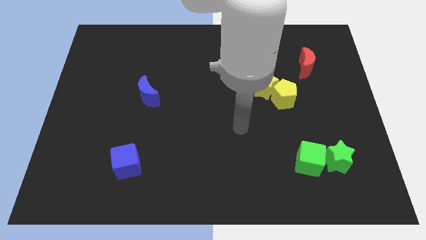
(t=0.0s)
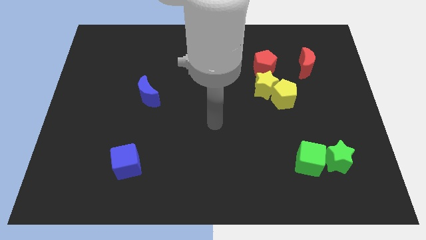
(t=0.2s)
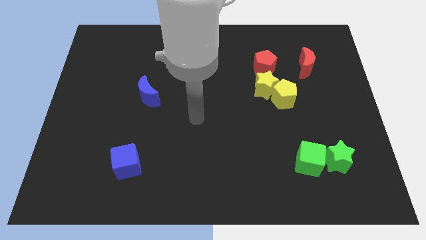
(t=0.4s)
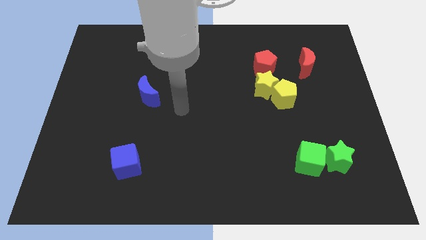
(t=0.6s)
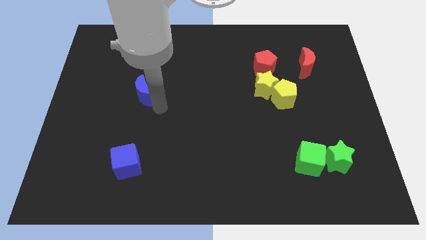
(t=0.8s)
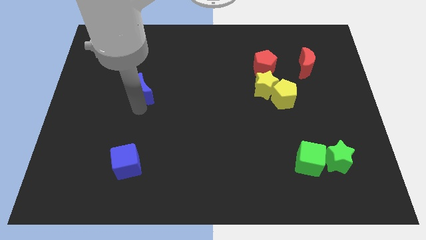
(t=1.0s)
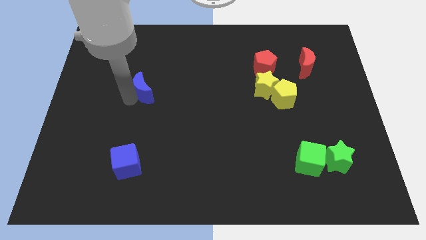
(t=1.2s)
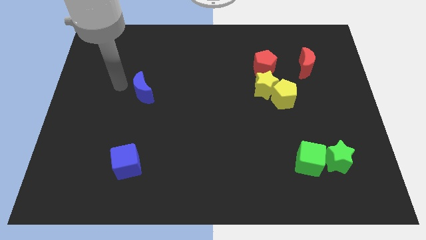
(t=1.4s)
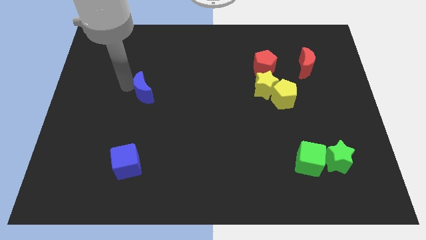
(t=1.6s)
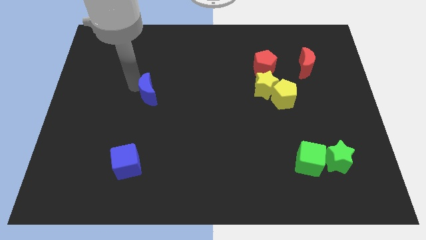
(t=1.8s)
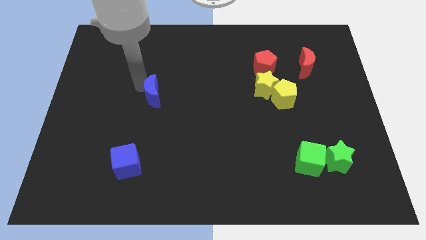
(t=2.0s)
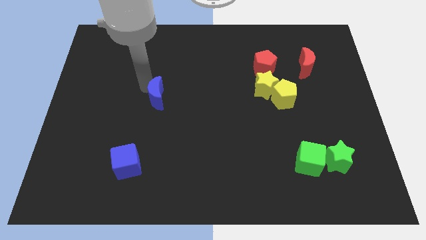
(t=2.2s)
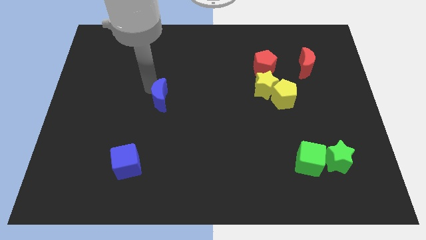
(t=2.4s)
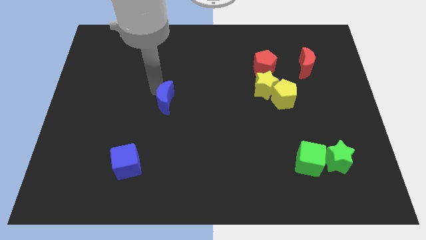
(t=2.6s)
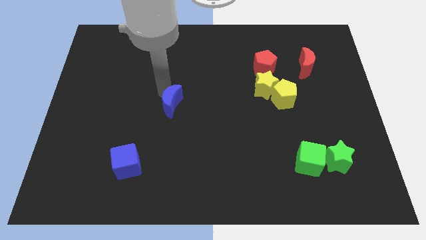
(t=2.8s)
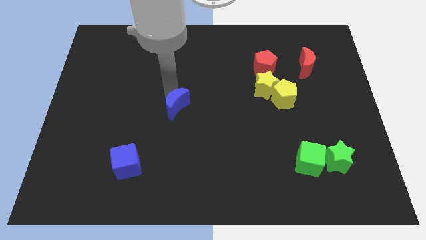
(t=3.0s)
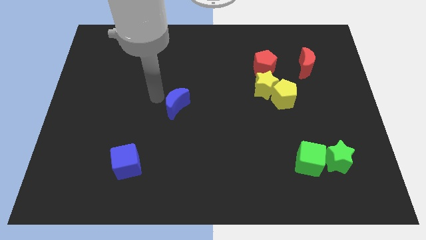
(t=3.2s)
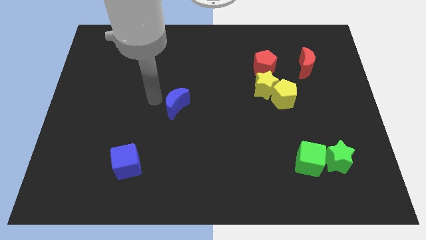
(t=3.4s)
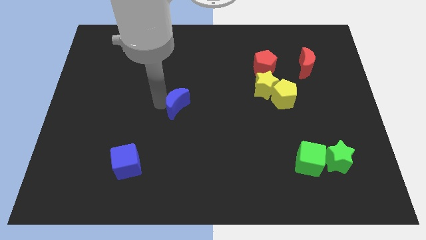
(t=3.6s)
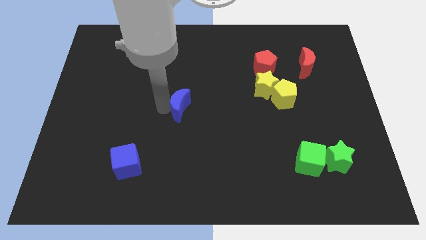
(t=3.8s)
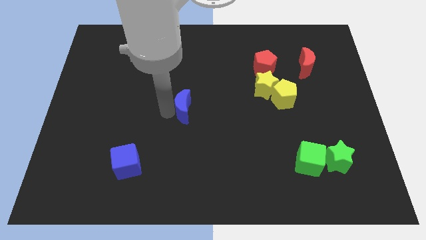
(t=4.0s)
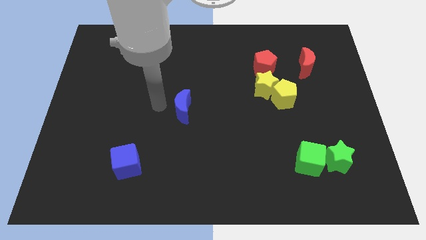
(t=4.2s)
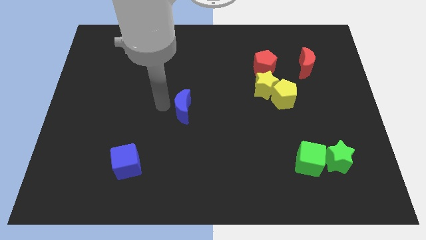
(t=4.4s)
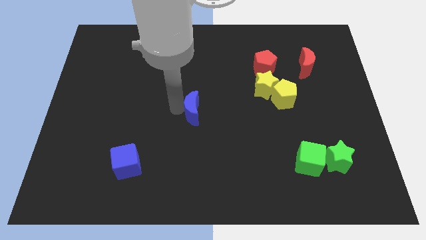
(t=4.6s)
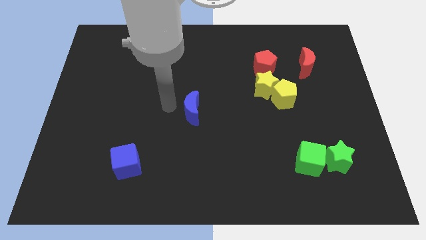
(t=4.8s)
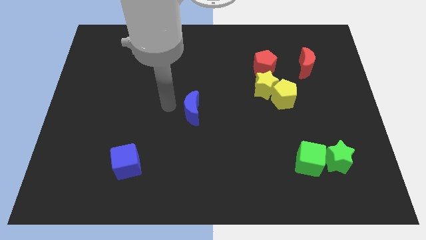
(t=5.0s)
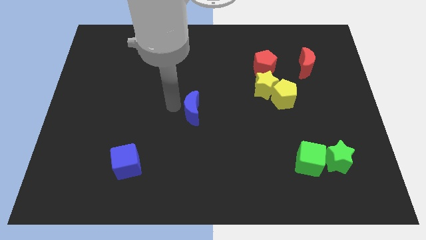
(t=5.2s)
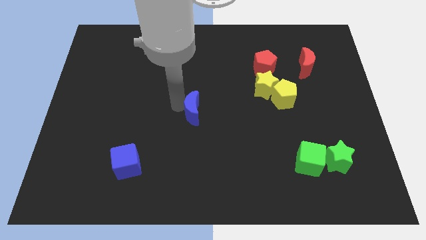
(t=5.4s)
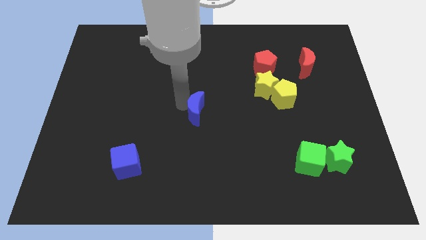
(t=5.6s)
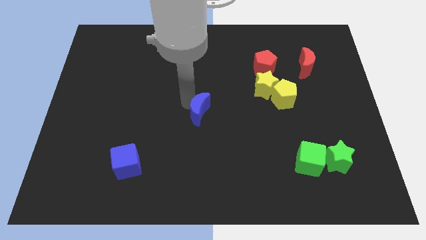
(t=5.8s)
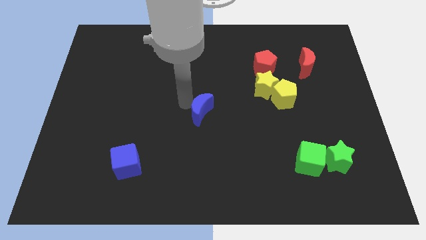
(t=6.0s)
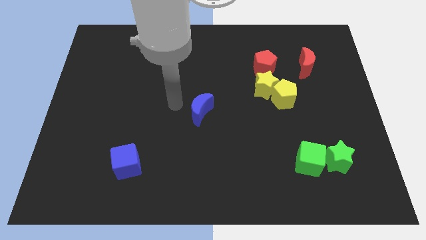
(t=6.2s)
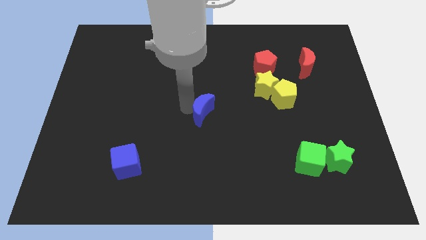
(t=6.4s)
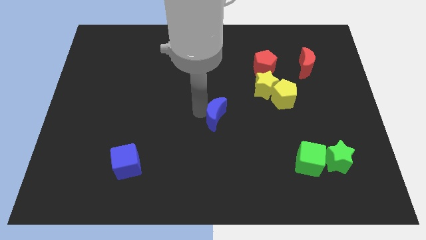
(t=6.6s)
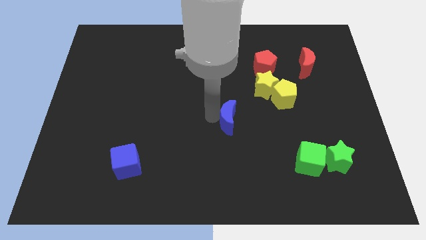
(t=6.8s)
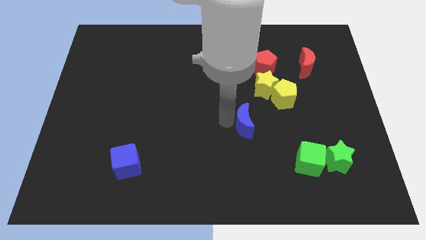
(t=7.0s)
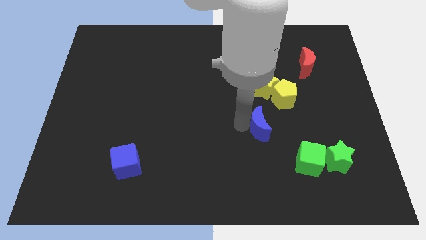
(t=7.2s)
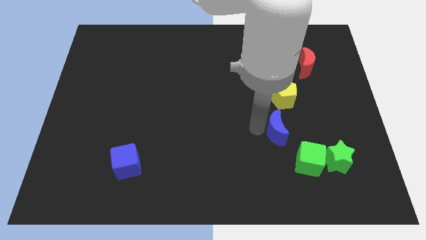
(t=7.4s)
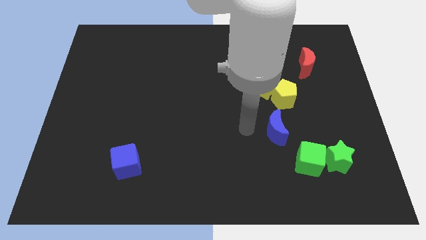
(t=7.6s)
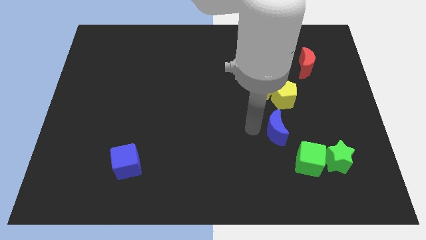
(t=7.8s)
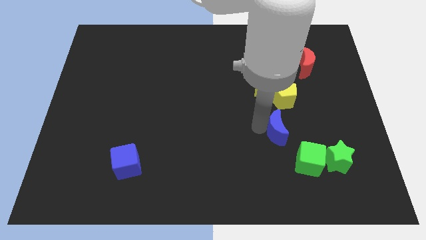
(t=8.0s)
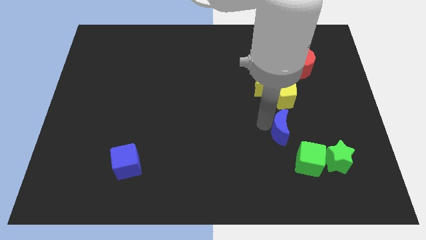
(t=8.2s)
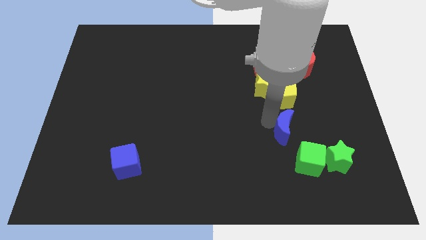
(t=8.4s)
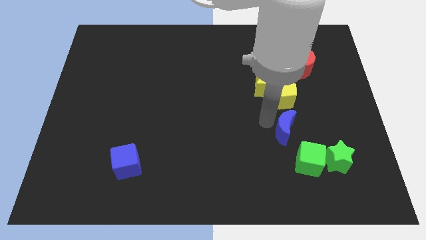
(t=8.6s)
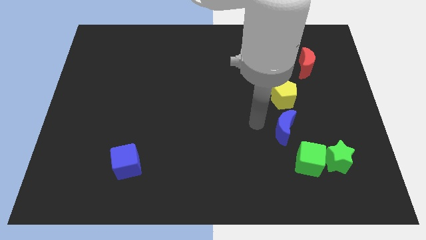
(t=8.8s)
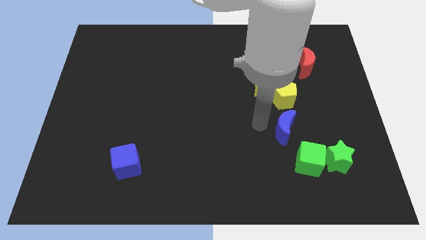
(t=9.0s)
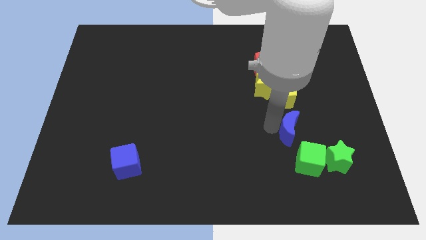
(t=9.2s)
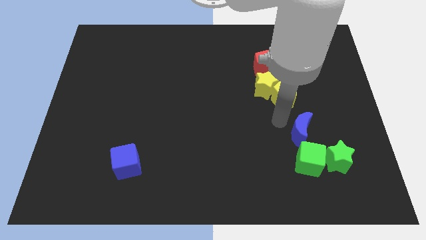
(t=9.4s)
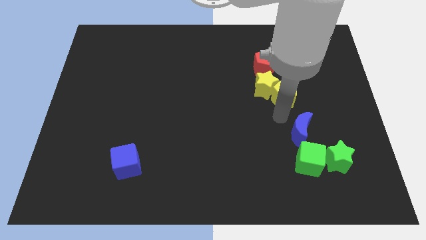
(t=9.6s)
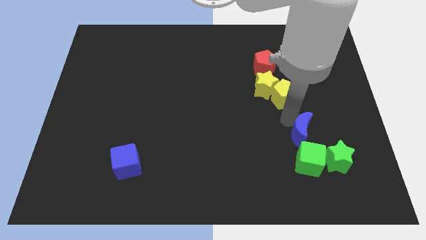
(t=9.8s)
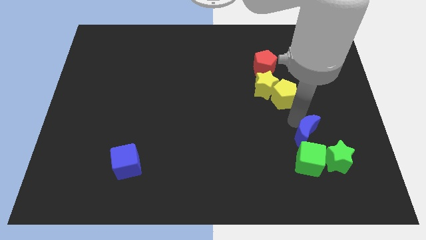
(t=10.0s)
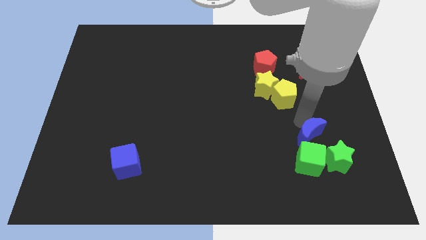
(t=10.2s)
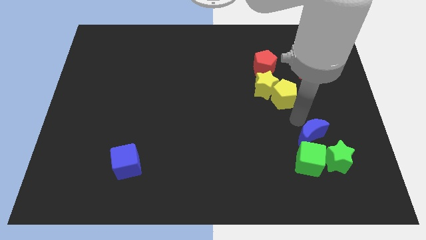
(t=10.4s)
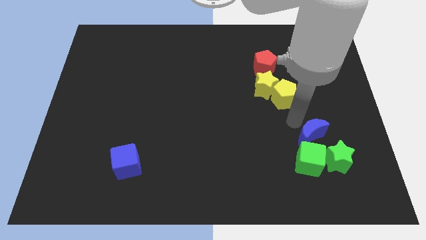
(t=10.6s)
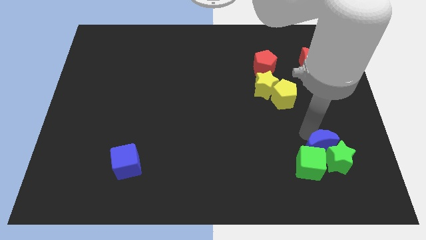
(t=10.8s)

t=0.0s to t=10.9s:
move the blue moon close to the green star
